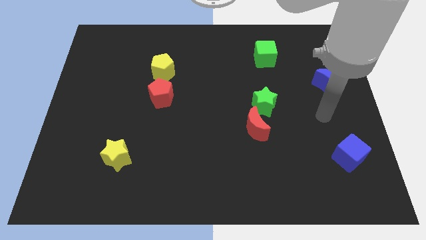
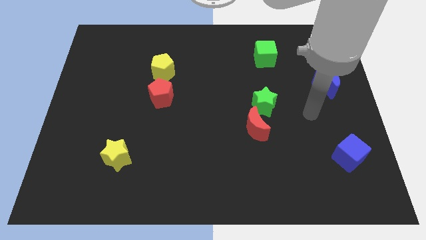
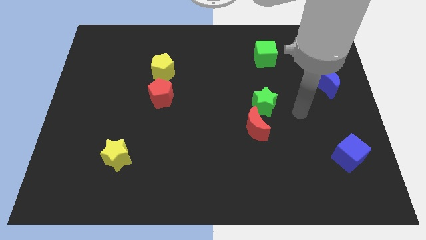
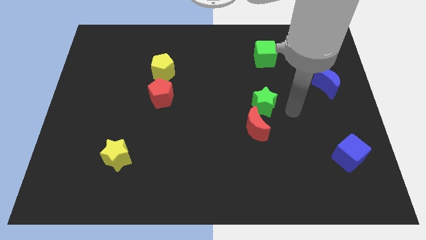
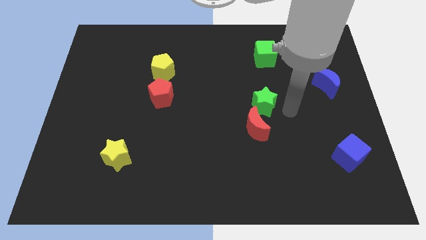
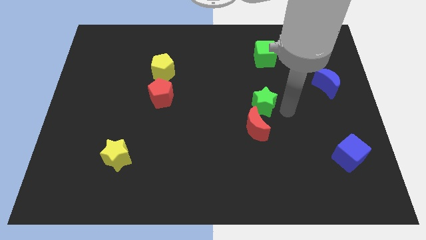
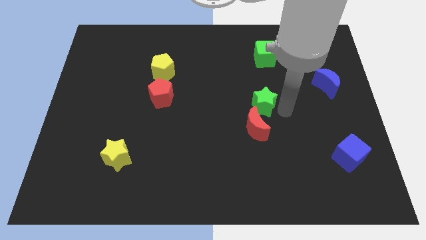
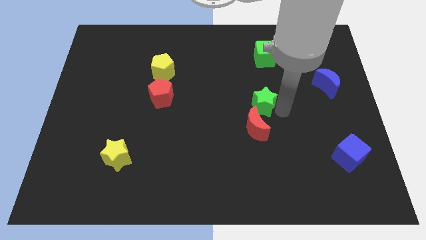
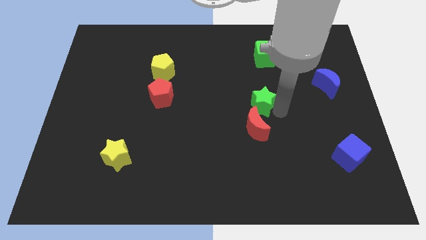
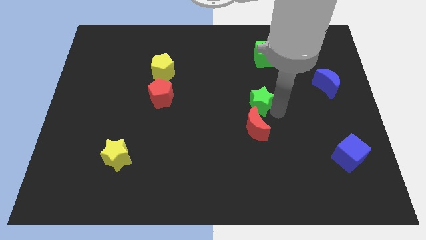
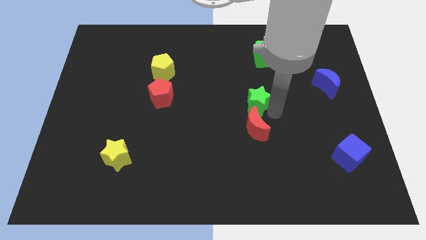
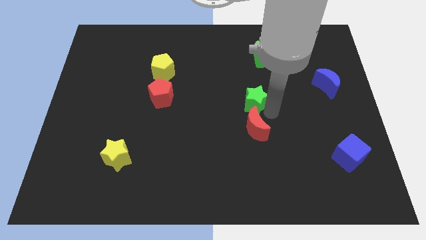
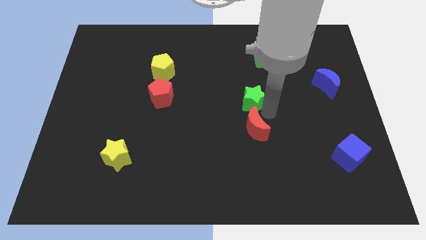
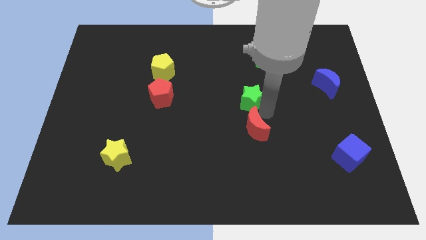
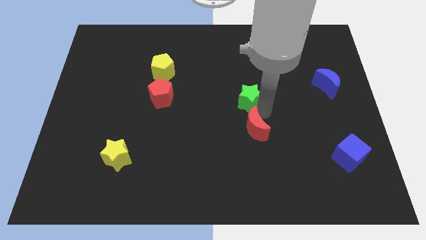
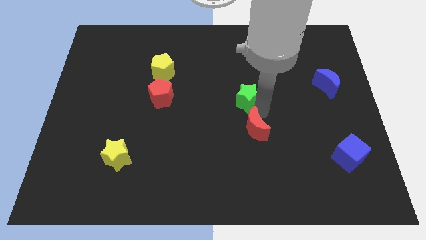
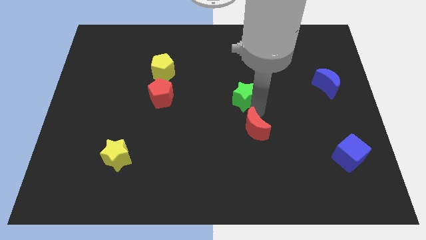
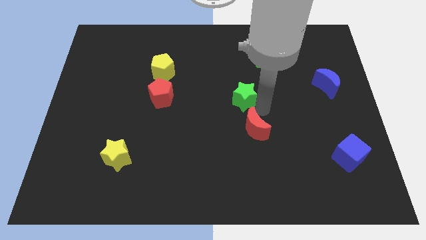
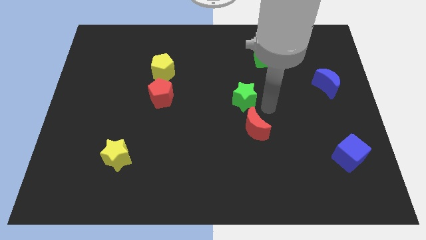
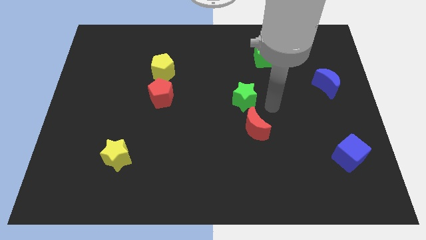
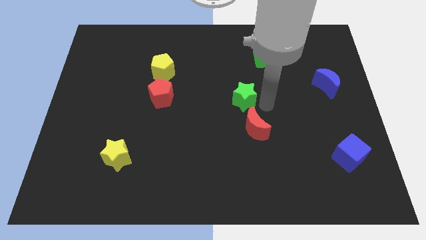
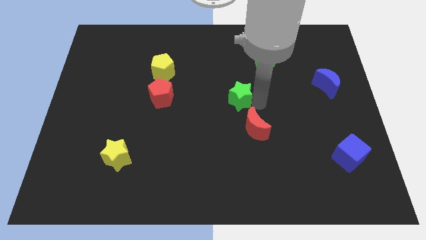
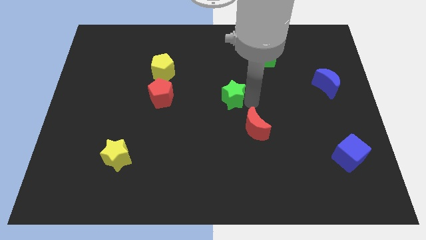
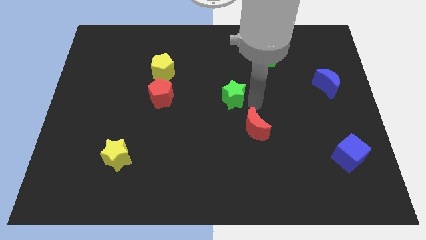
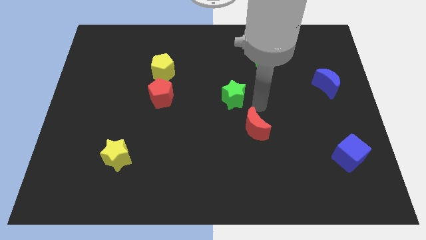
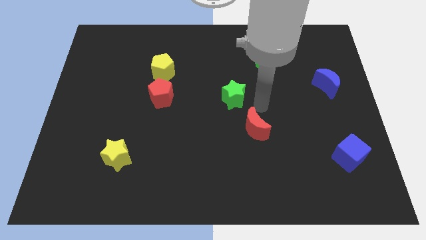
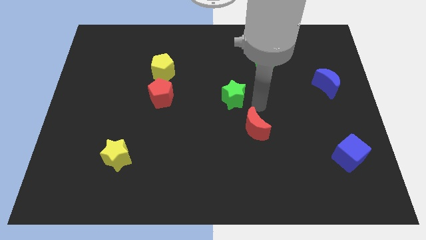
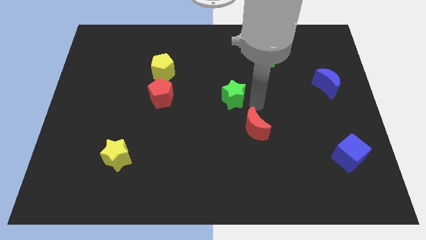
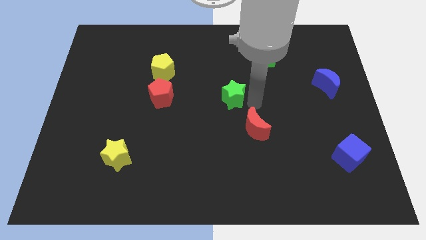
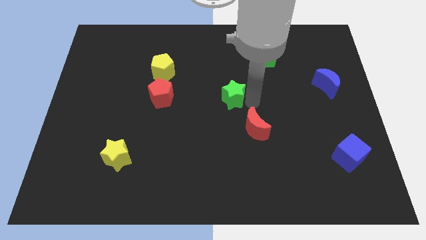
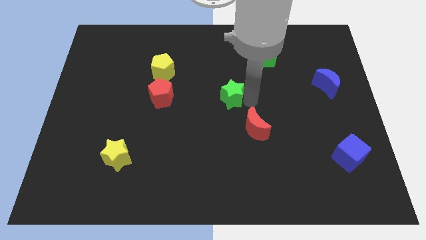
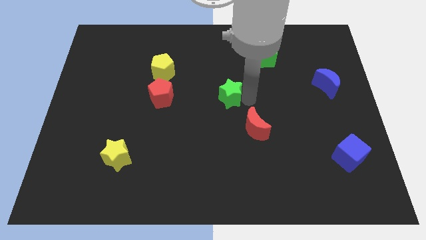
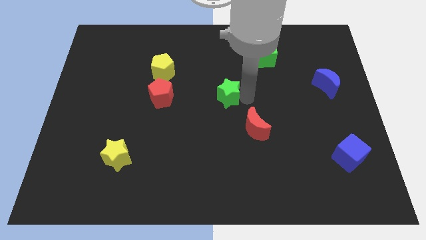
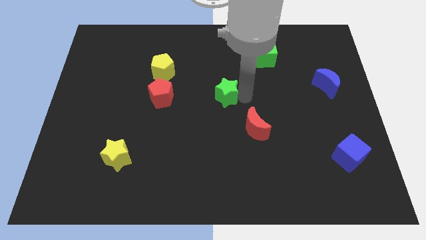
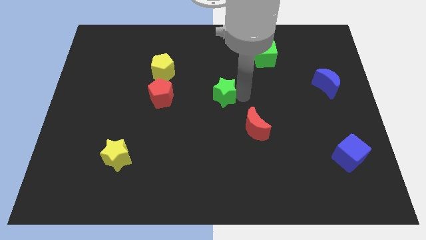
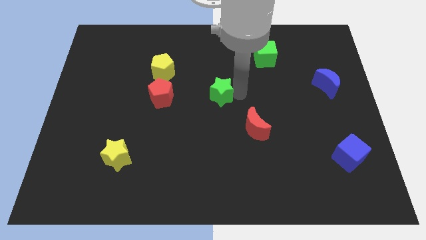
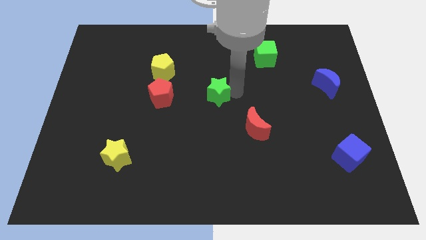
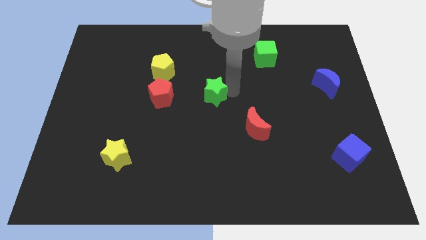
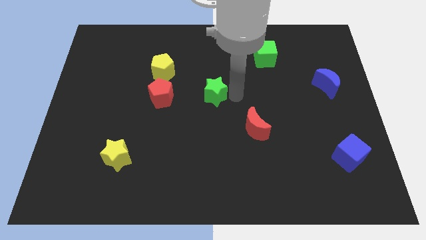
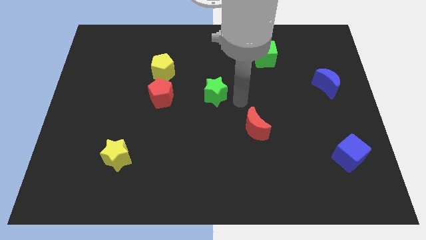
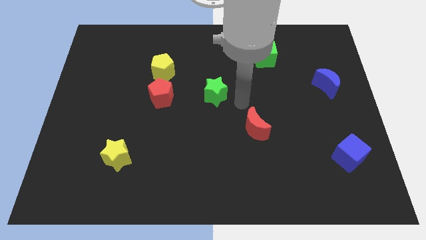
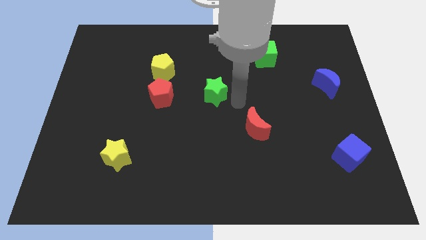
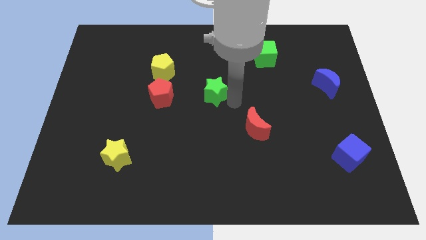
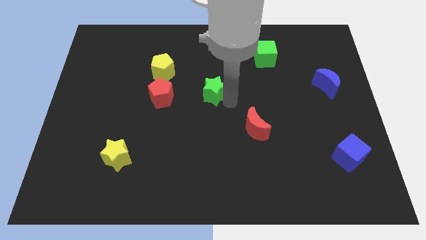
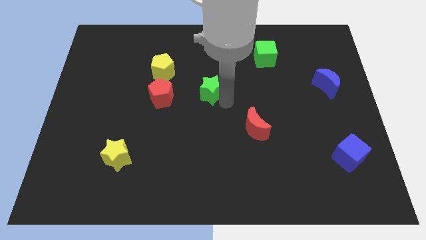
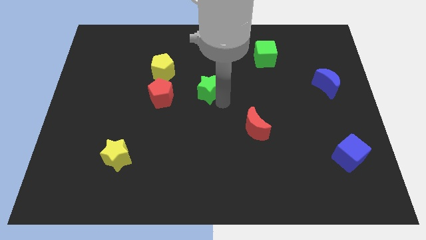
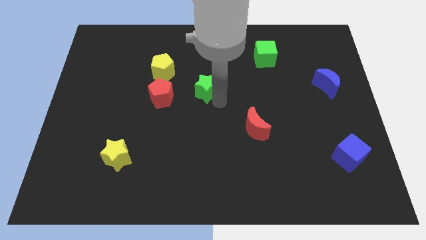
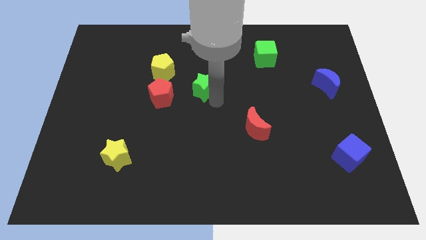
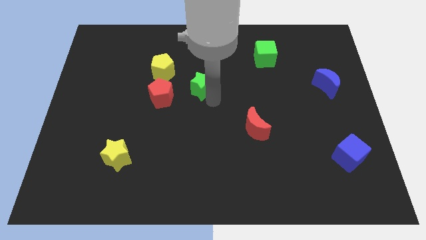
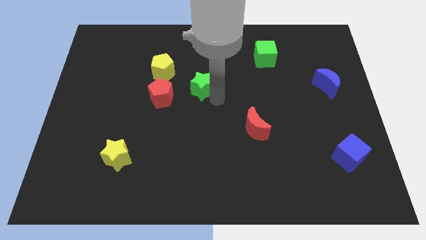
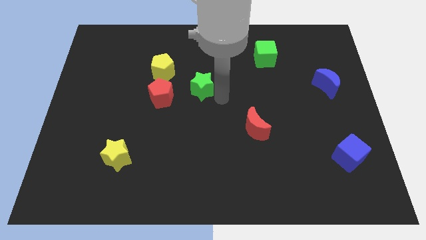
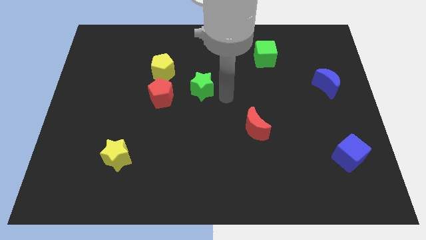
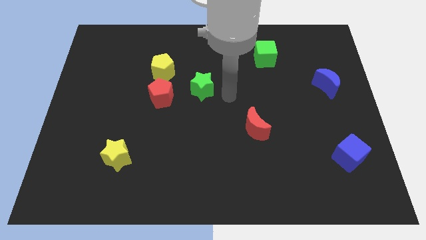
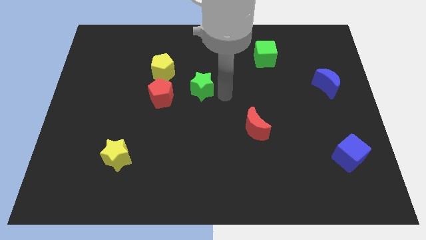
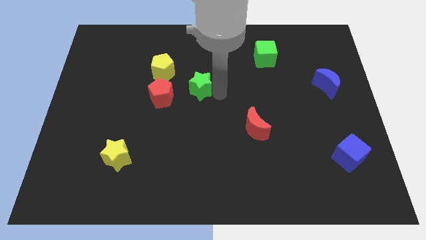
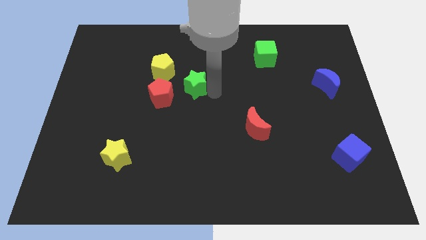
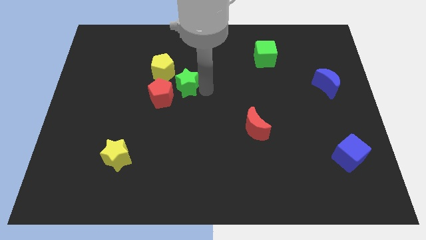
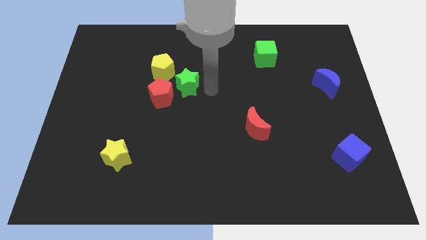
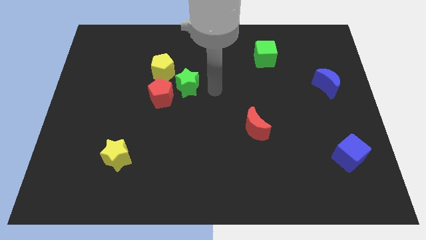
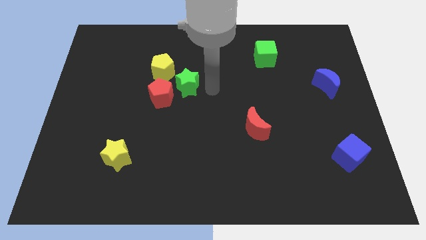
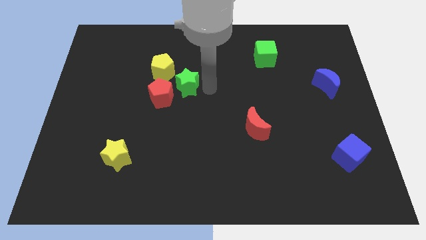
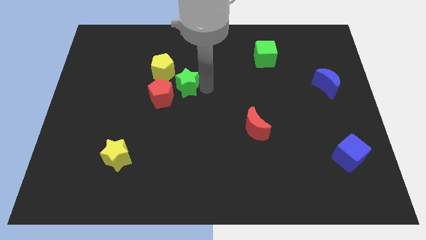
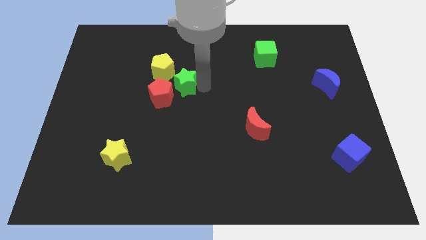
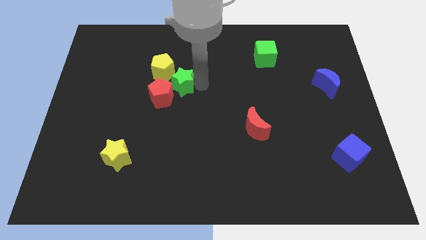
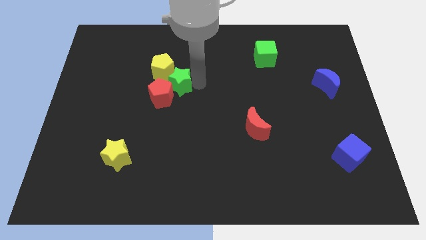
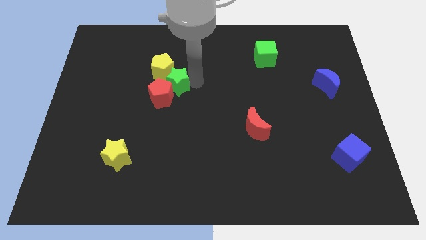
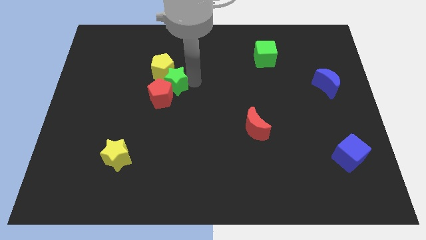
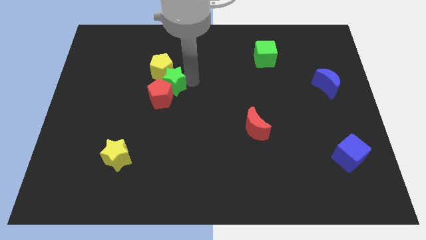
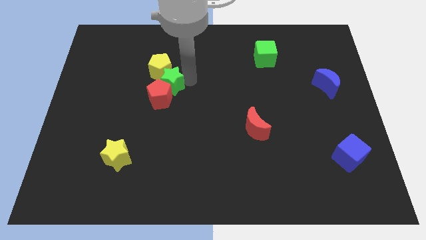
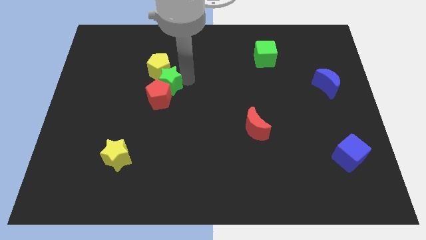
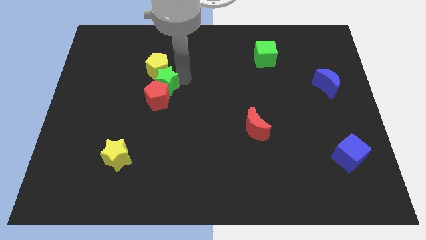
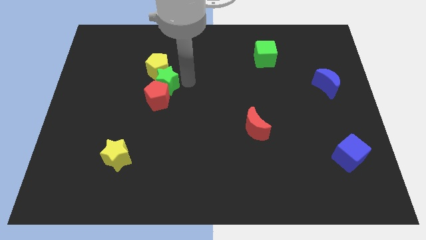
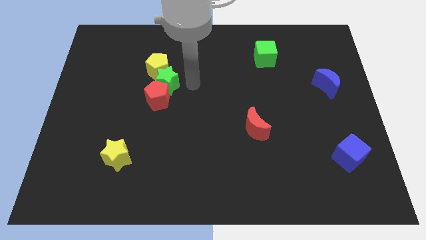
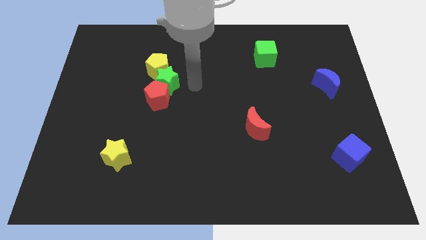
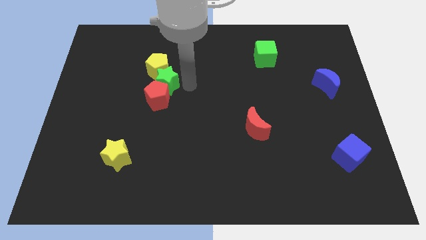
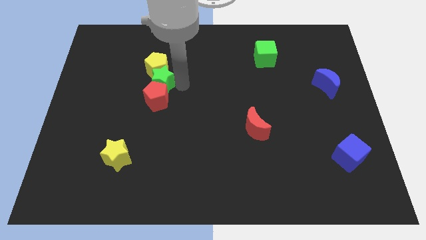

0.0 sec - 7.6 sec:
move the green star to the top left side of the red pentagon
